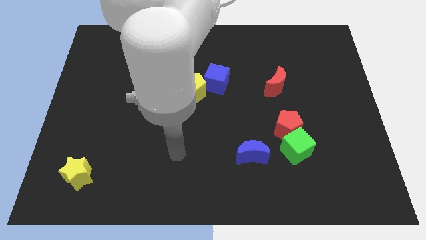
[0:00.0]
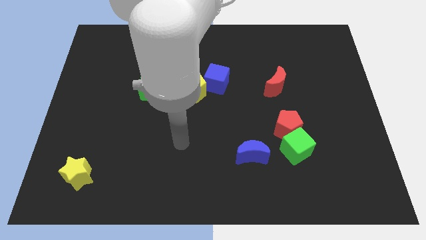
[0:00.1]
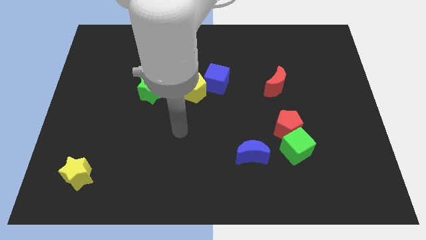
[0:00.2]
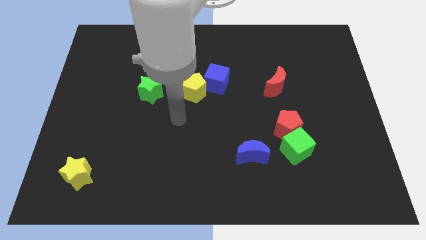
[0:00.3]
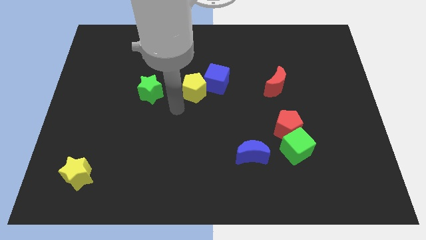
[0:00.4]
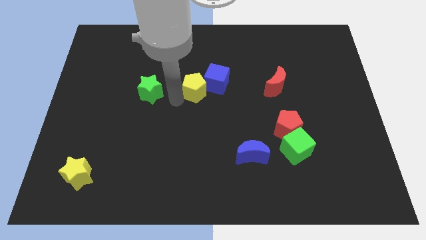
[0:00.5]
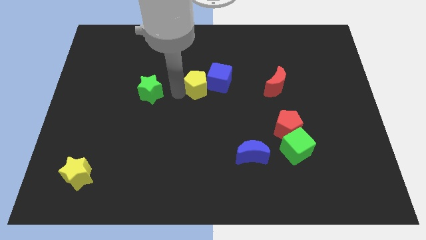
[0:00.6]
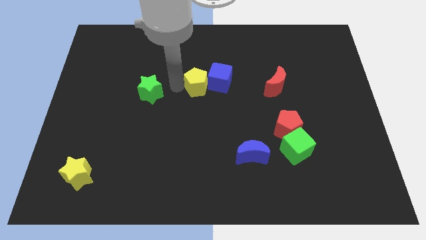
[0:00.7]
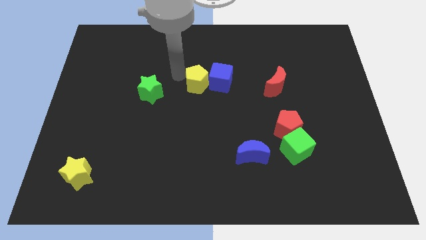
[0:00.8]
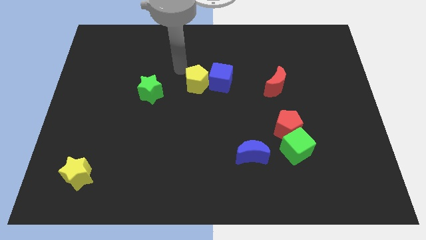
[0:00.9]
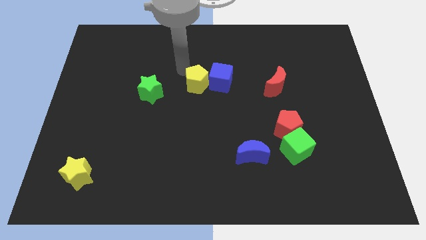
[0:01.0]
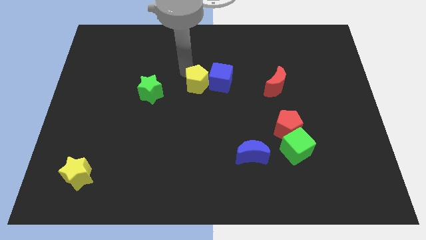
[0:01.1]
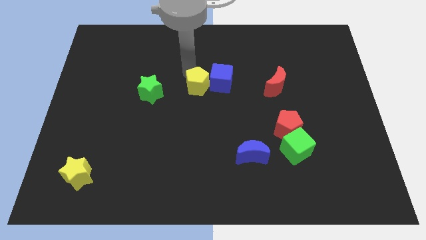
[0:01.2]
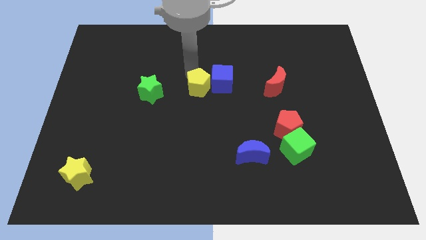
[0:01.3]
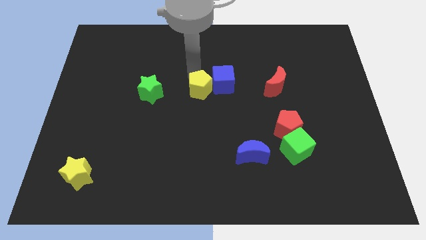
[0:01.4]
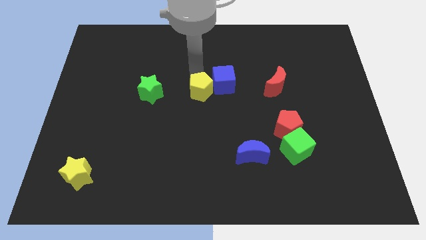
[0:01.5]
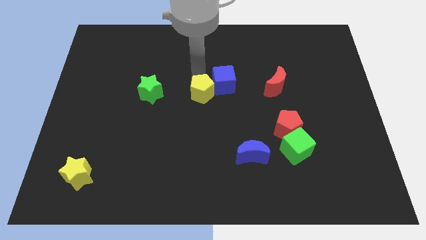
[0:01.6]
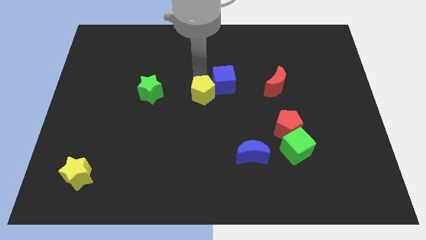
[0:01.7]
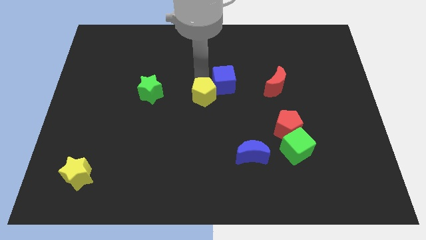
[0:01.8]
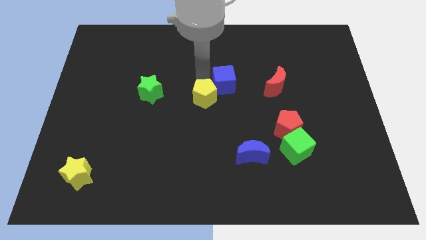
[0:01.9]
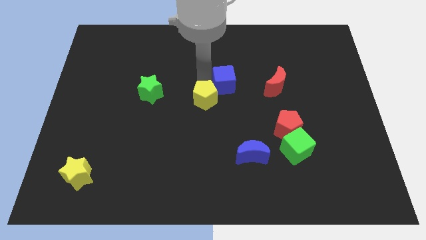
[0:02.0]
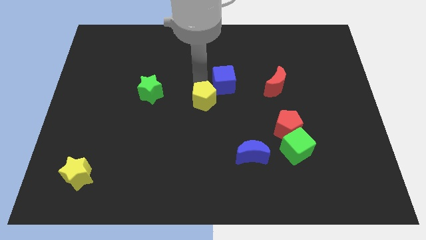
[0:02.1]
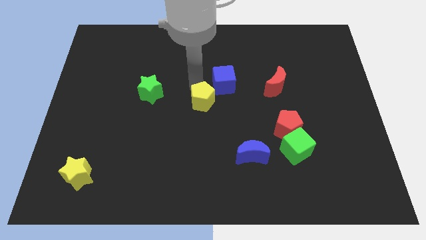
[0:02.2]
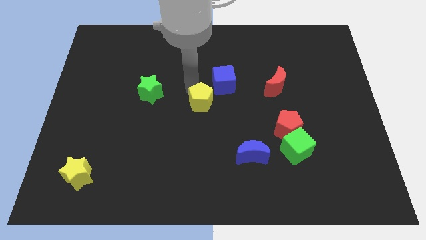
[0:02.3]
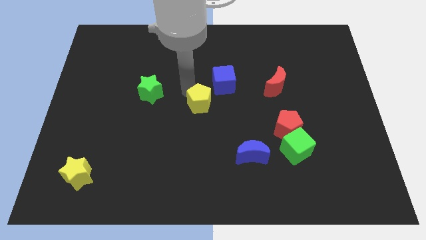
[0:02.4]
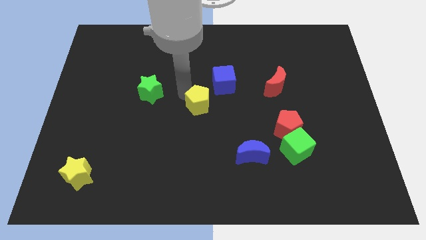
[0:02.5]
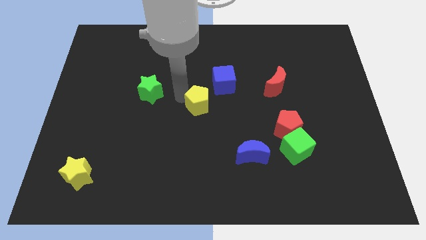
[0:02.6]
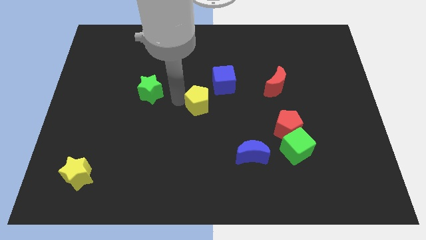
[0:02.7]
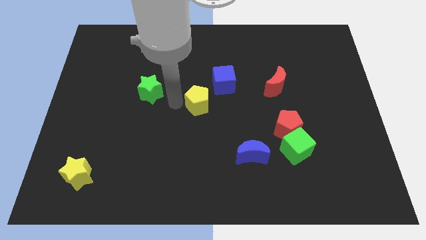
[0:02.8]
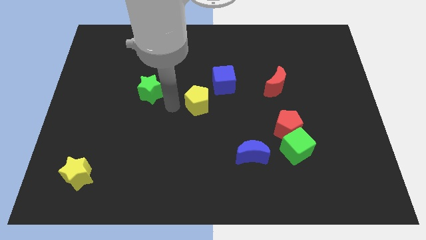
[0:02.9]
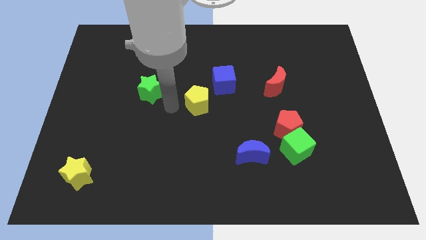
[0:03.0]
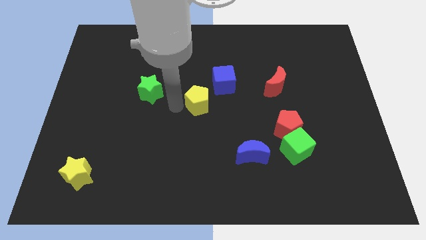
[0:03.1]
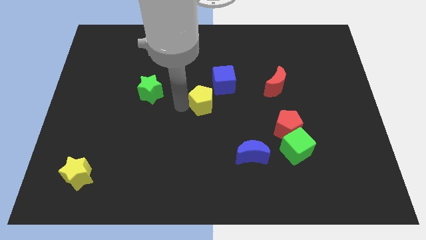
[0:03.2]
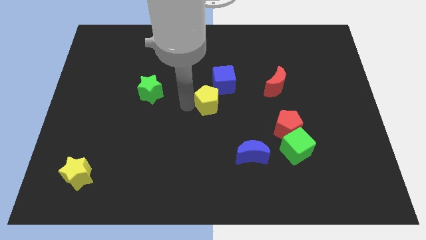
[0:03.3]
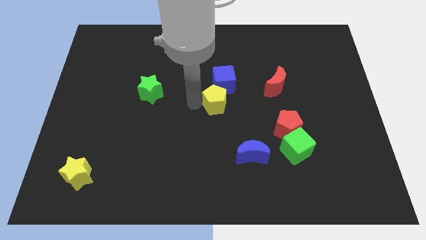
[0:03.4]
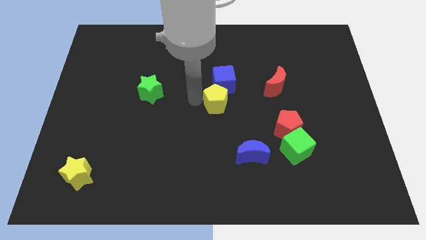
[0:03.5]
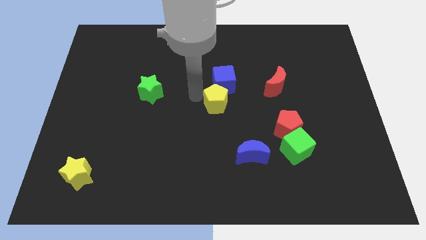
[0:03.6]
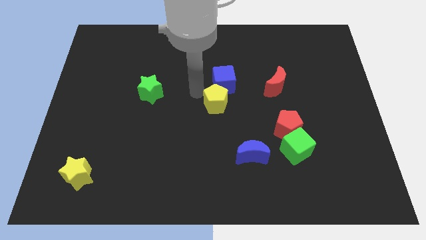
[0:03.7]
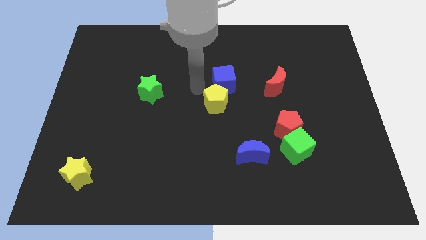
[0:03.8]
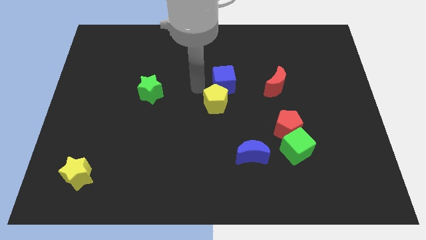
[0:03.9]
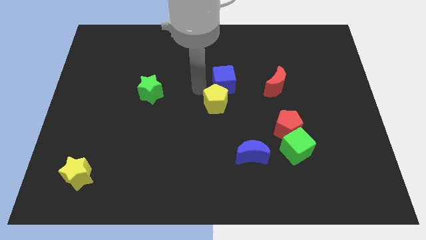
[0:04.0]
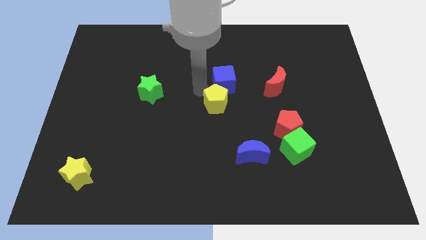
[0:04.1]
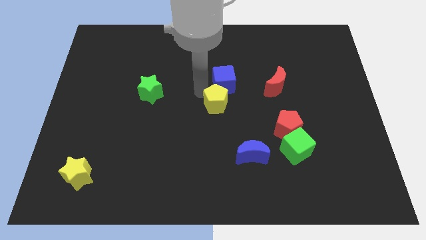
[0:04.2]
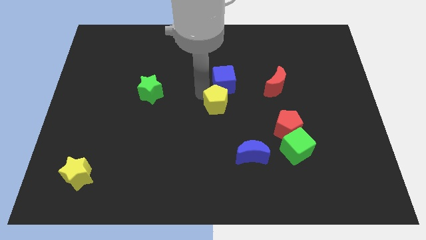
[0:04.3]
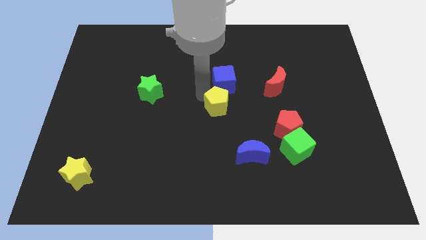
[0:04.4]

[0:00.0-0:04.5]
move the yellow pentagon down and right diagonally a little bit

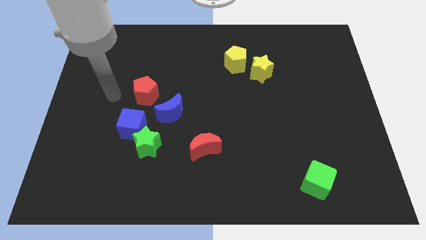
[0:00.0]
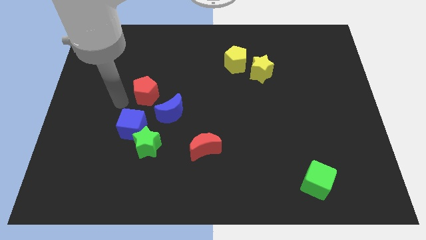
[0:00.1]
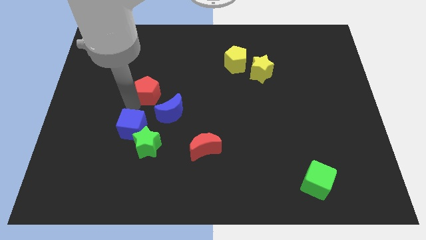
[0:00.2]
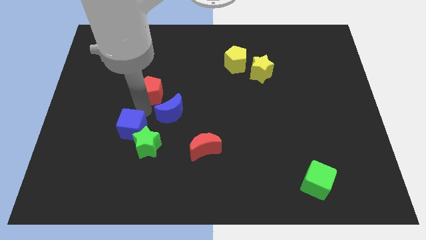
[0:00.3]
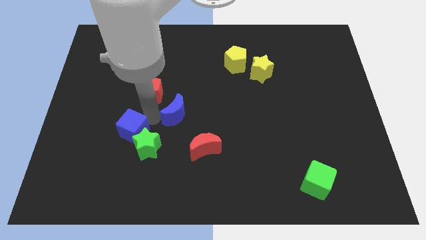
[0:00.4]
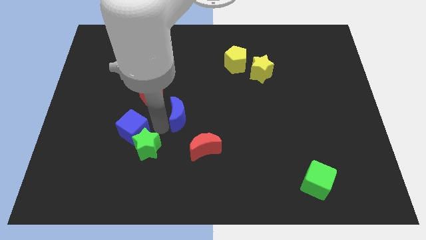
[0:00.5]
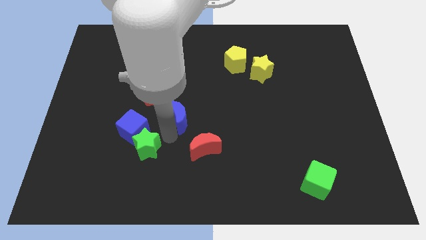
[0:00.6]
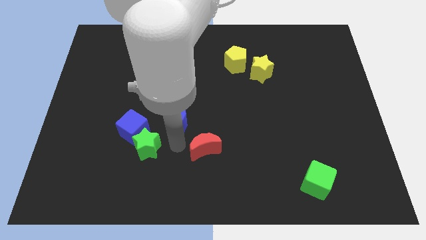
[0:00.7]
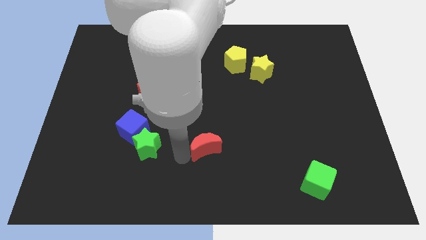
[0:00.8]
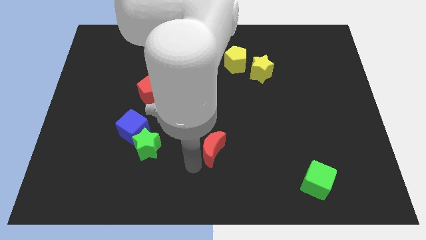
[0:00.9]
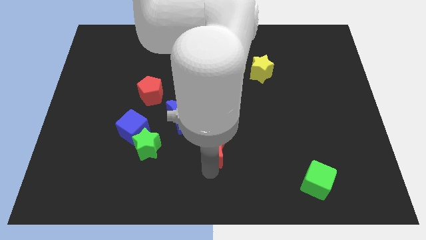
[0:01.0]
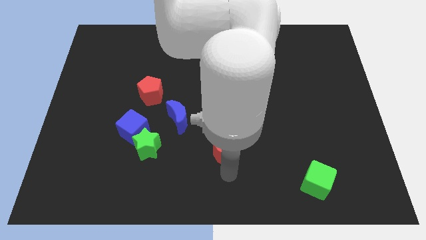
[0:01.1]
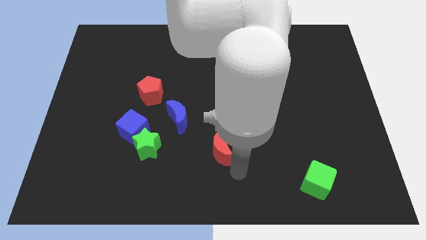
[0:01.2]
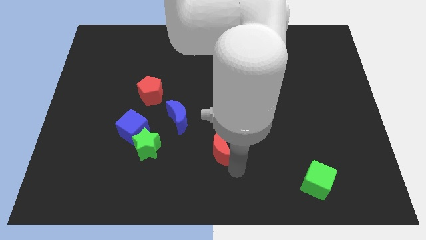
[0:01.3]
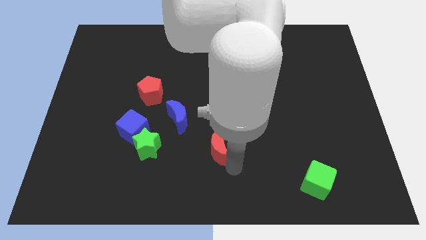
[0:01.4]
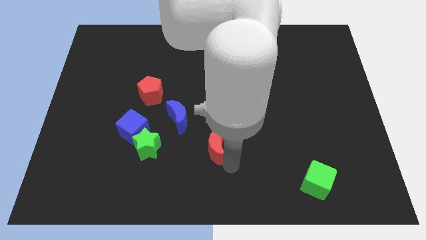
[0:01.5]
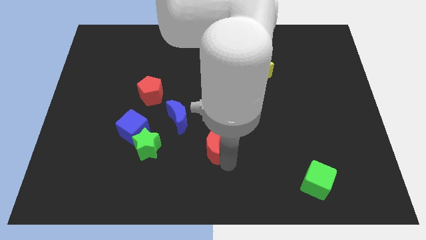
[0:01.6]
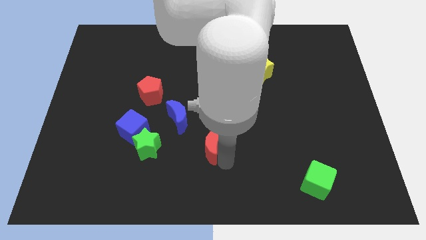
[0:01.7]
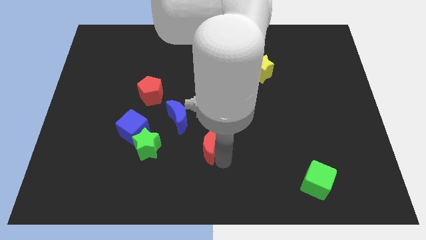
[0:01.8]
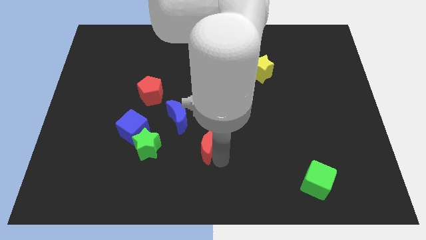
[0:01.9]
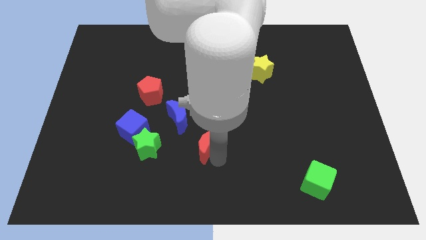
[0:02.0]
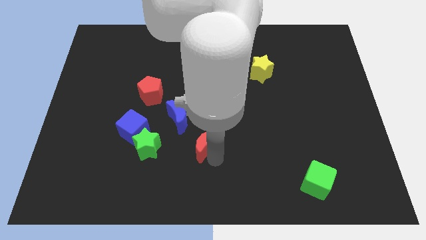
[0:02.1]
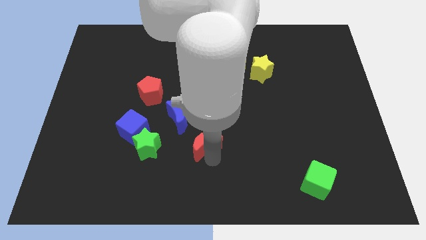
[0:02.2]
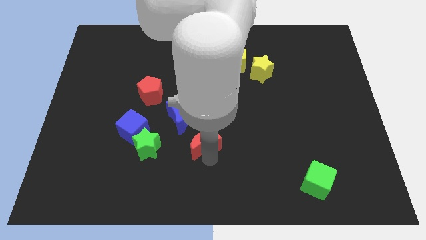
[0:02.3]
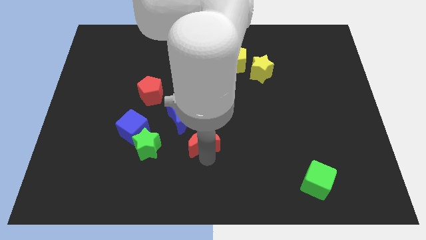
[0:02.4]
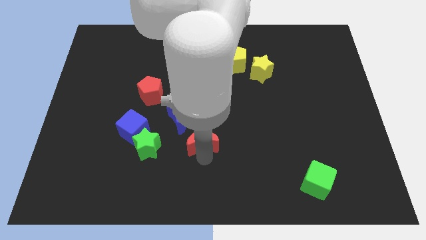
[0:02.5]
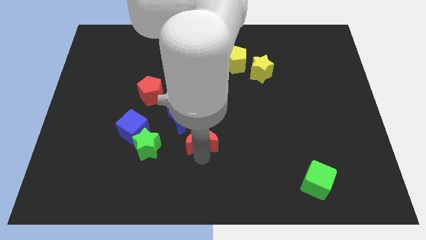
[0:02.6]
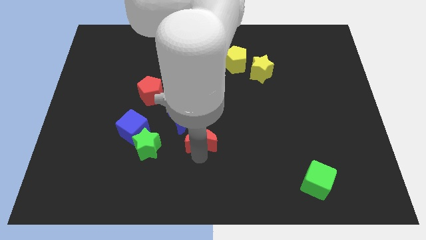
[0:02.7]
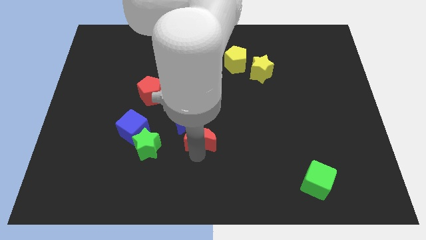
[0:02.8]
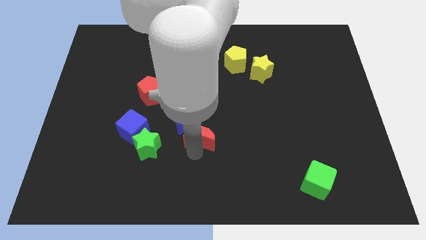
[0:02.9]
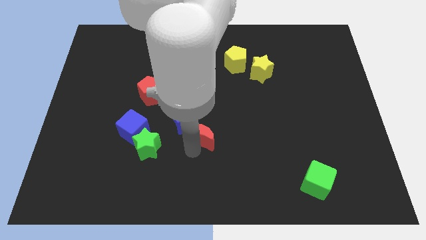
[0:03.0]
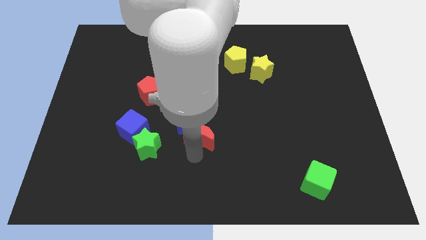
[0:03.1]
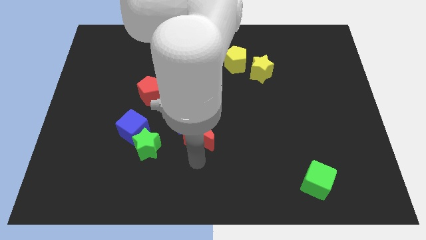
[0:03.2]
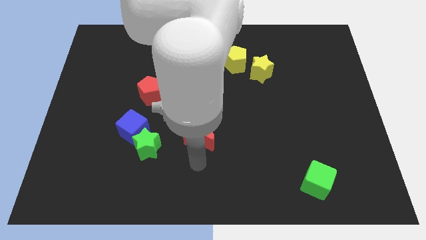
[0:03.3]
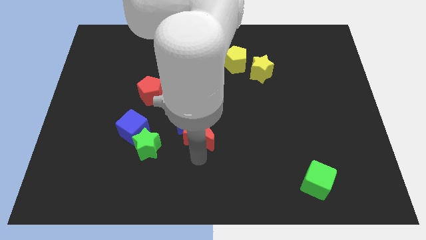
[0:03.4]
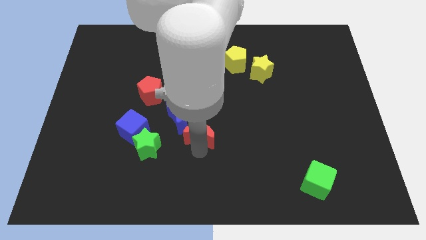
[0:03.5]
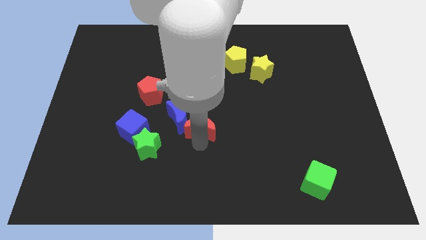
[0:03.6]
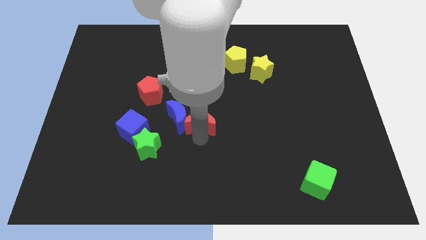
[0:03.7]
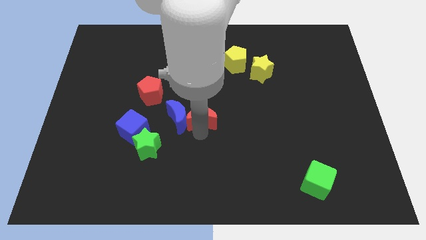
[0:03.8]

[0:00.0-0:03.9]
slightly move the red moon upwards
